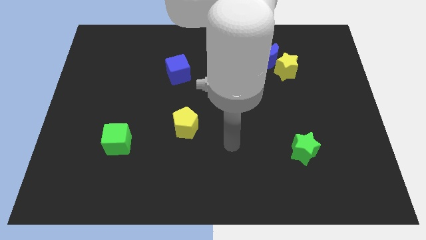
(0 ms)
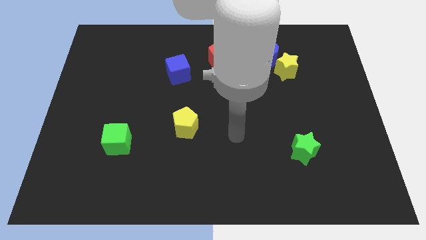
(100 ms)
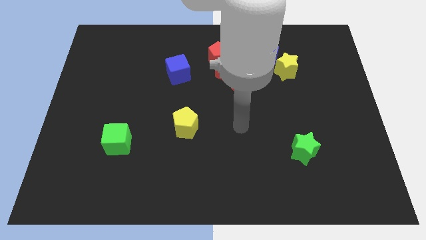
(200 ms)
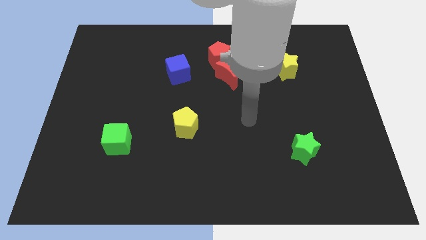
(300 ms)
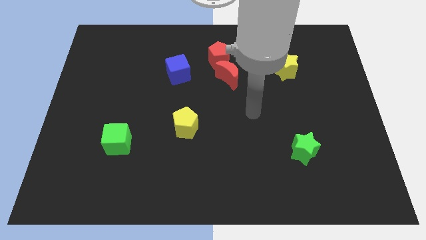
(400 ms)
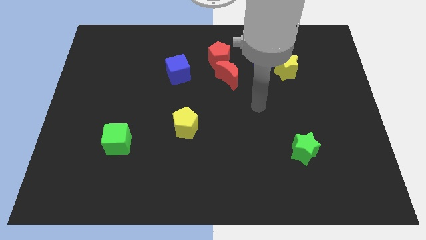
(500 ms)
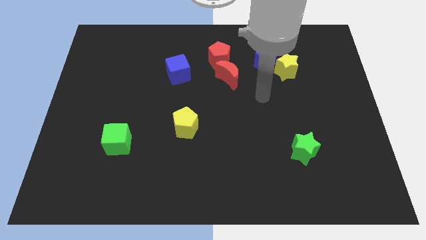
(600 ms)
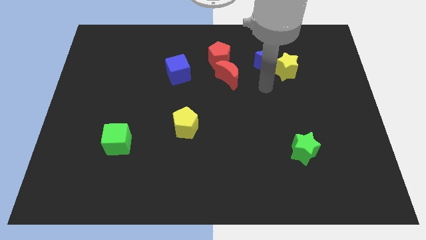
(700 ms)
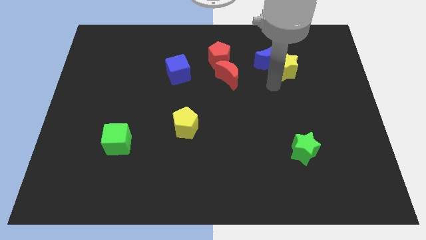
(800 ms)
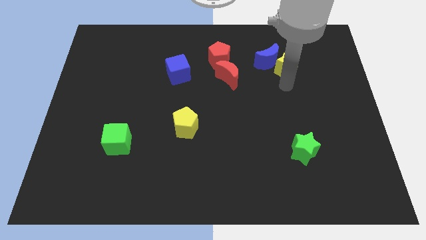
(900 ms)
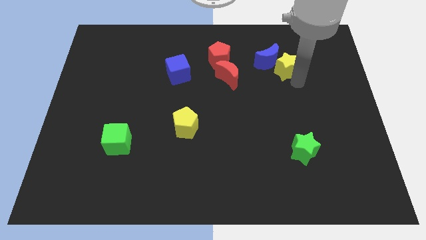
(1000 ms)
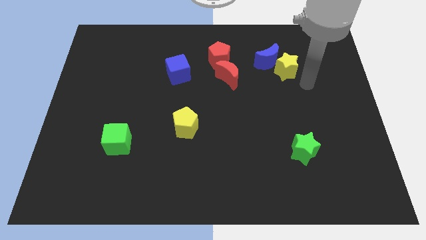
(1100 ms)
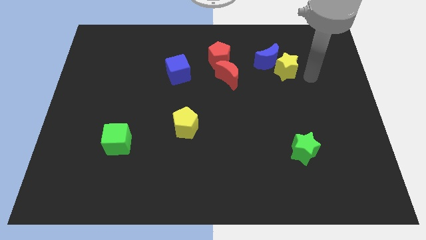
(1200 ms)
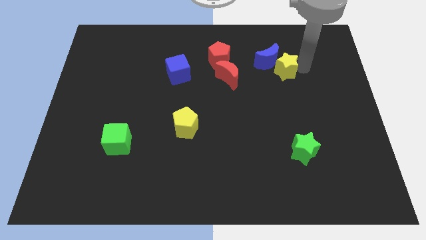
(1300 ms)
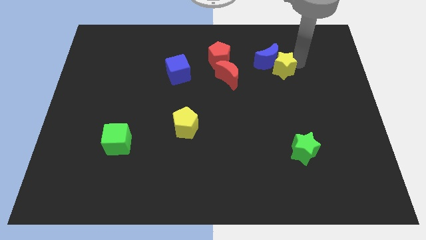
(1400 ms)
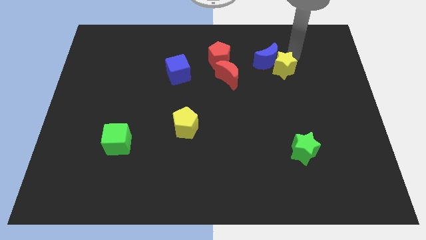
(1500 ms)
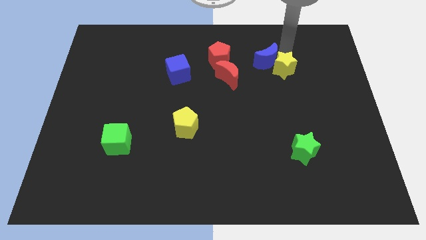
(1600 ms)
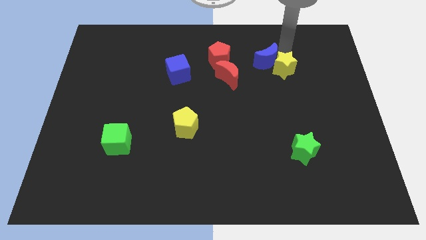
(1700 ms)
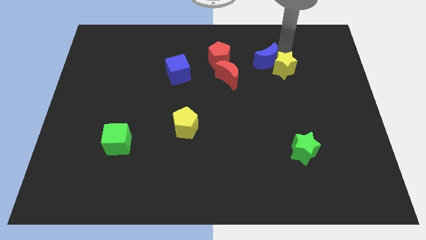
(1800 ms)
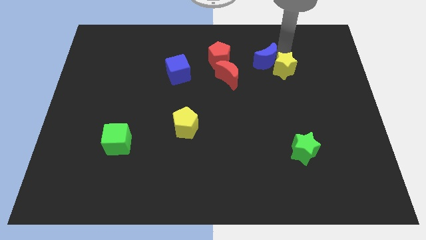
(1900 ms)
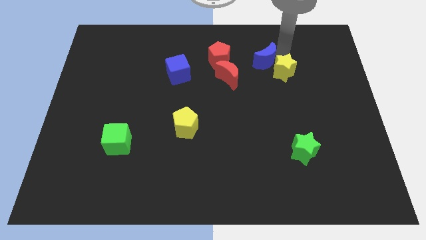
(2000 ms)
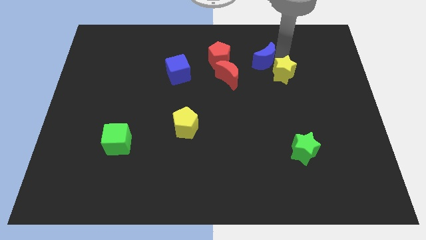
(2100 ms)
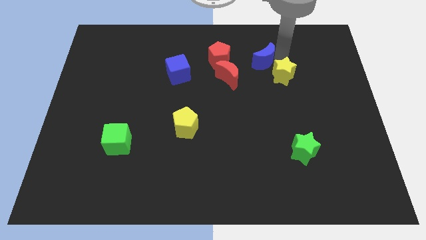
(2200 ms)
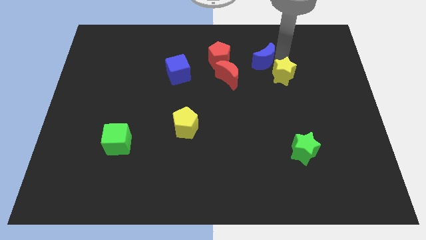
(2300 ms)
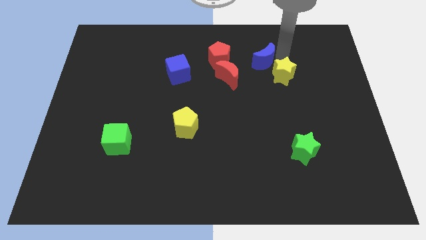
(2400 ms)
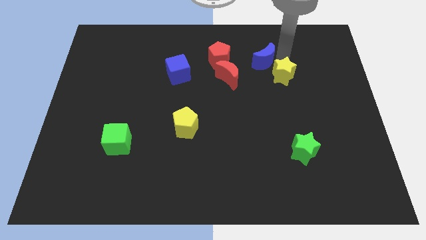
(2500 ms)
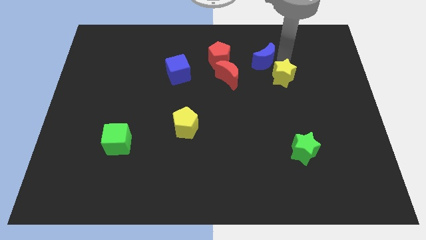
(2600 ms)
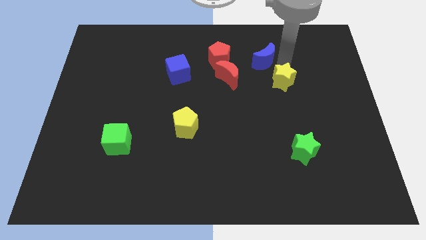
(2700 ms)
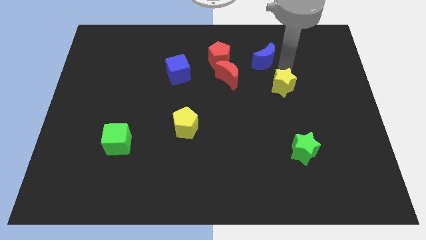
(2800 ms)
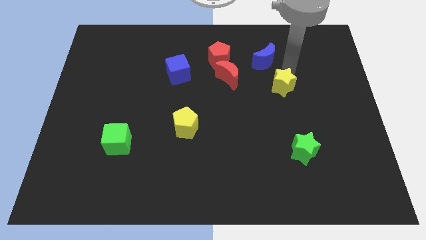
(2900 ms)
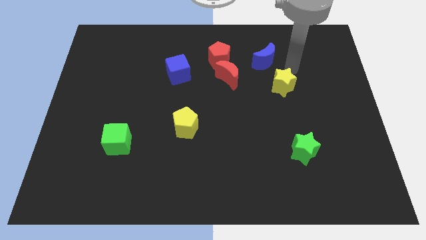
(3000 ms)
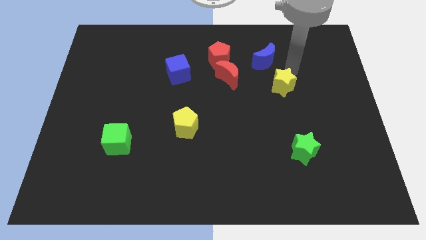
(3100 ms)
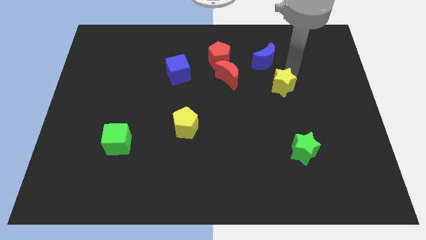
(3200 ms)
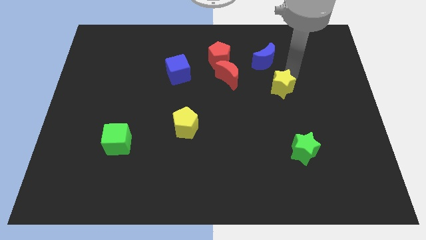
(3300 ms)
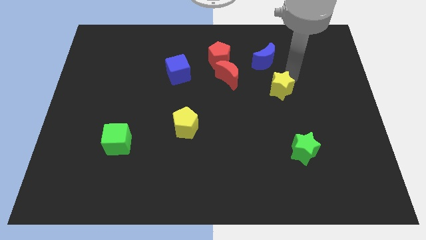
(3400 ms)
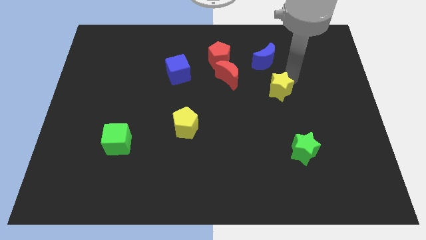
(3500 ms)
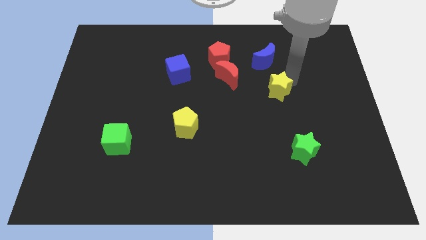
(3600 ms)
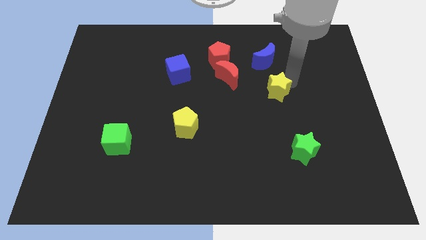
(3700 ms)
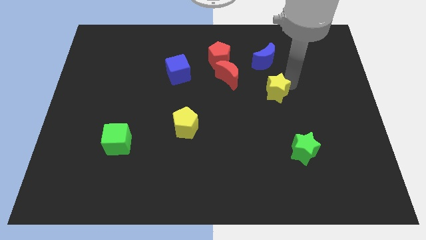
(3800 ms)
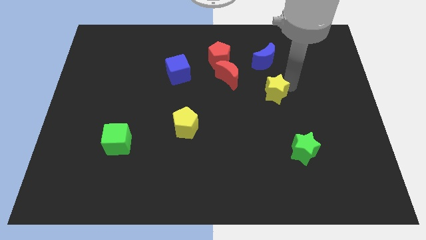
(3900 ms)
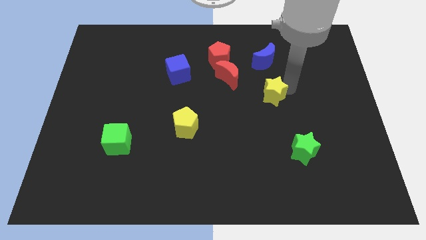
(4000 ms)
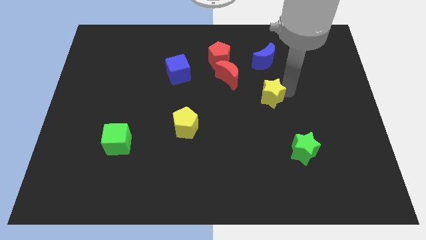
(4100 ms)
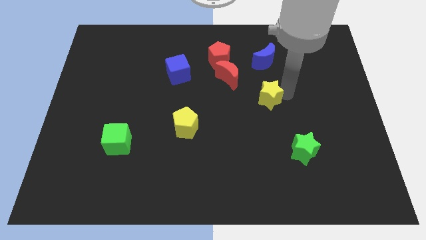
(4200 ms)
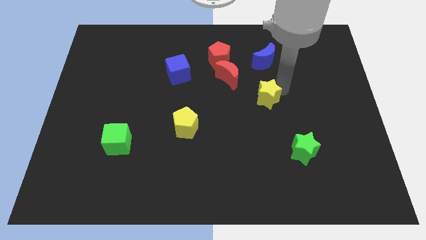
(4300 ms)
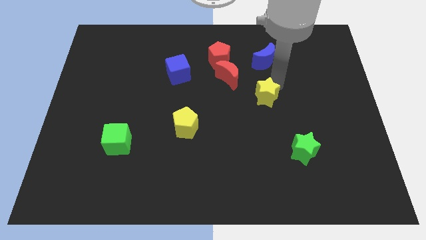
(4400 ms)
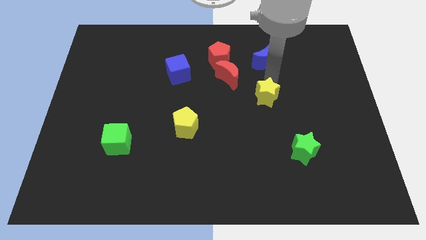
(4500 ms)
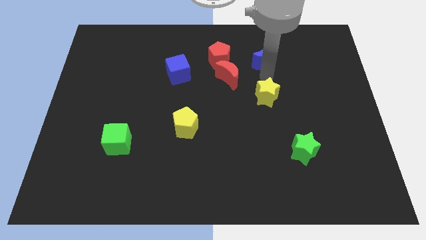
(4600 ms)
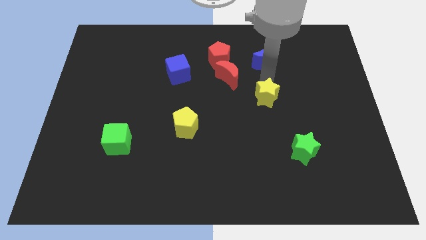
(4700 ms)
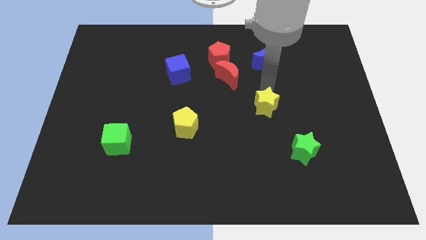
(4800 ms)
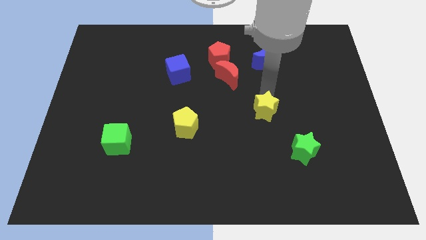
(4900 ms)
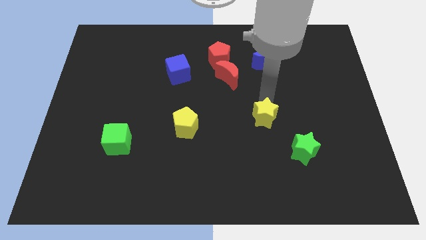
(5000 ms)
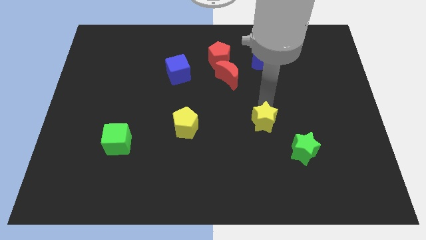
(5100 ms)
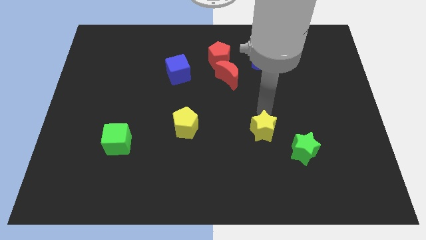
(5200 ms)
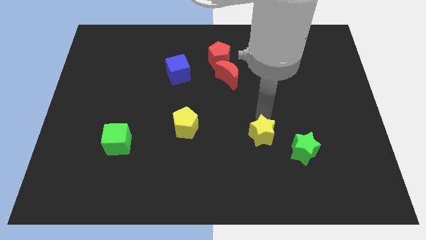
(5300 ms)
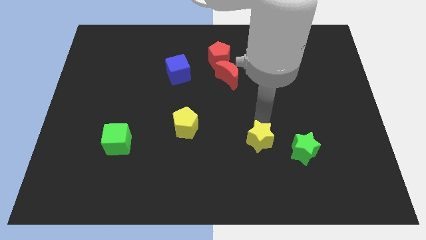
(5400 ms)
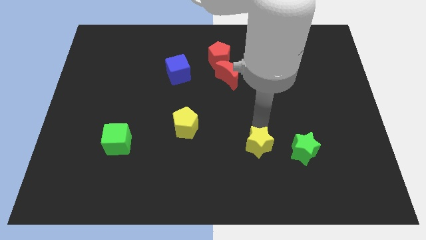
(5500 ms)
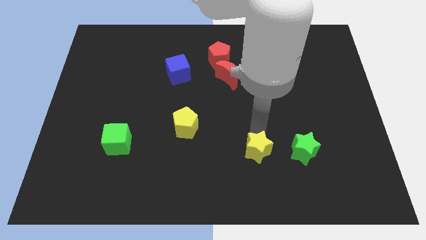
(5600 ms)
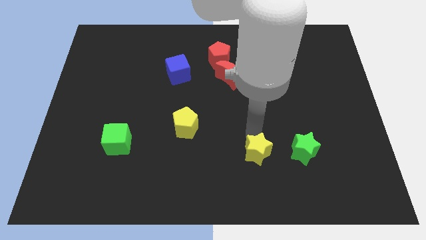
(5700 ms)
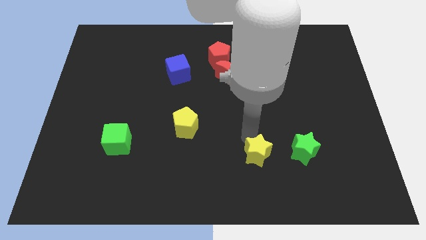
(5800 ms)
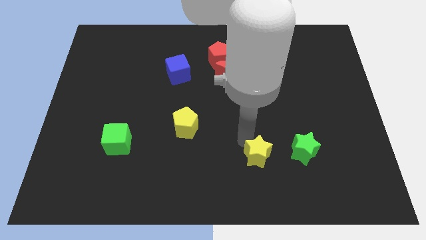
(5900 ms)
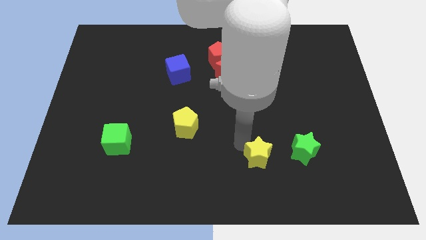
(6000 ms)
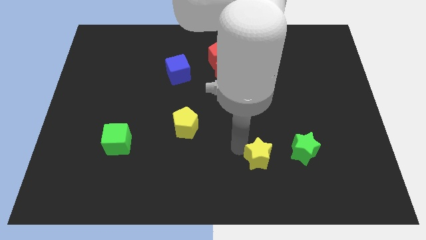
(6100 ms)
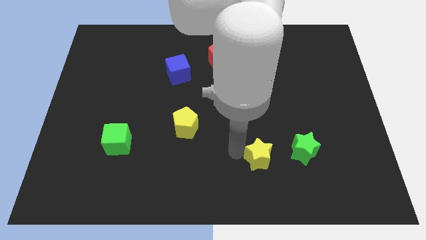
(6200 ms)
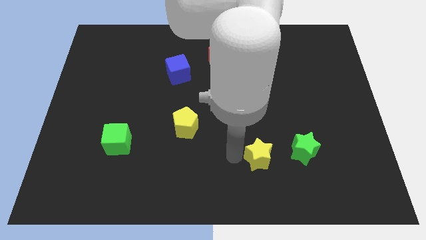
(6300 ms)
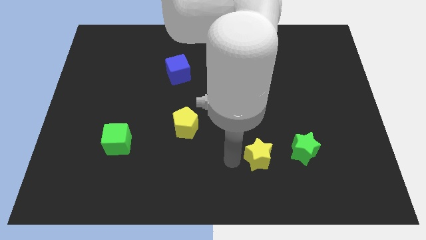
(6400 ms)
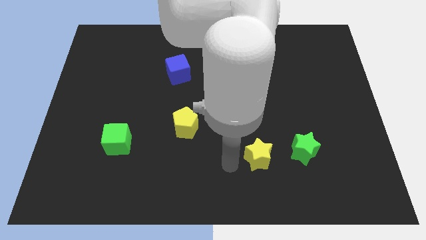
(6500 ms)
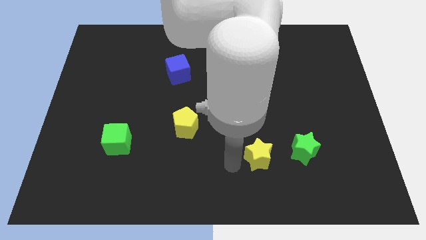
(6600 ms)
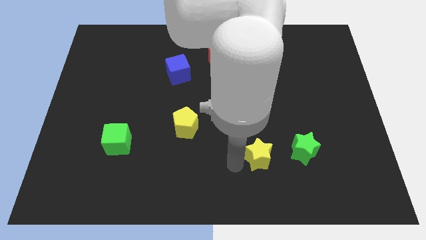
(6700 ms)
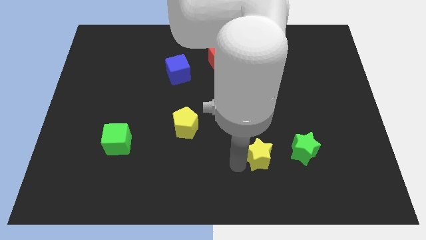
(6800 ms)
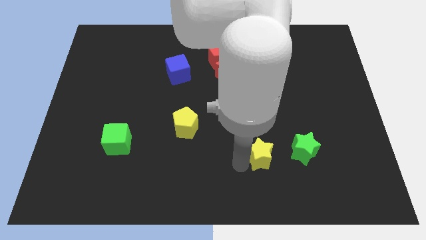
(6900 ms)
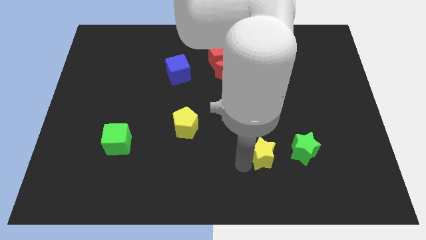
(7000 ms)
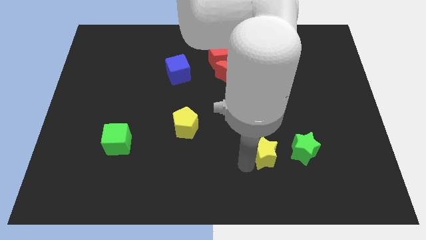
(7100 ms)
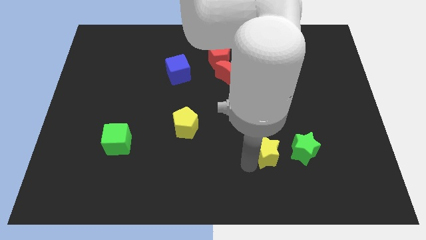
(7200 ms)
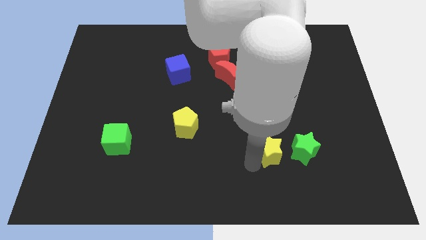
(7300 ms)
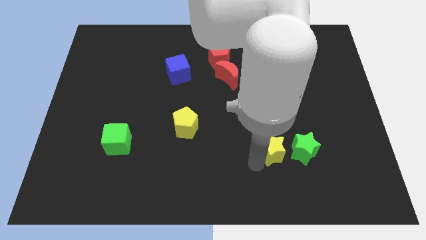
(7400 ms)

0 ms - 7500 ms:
put the yellow star to the bottom left of the green star
